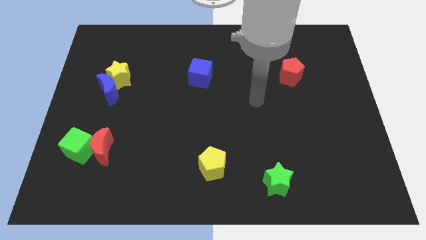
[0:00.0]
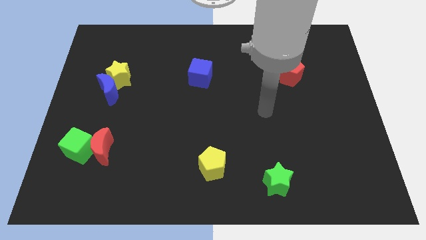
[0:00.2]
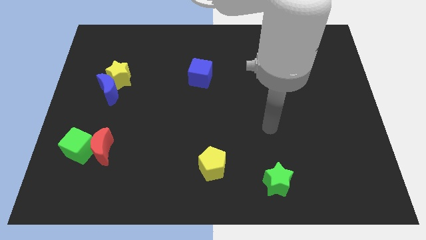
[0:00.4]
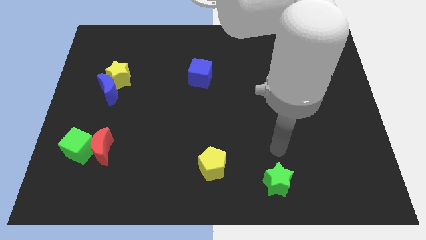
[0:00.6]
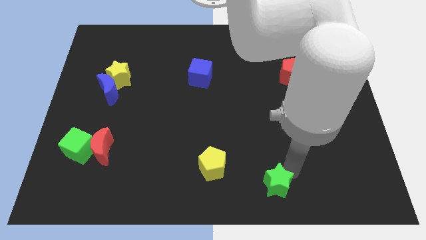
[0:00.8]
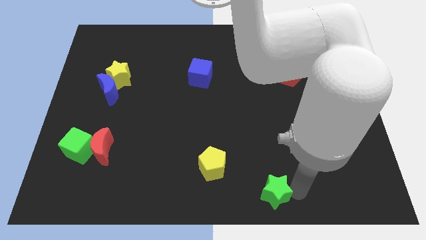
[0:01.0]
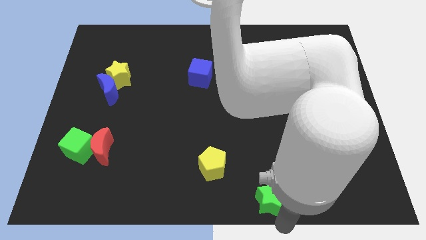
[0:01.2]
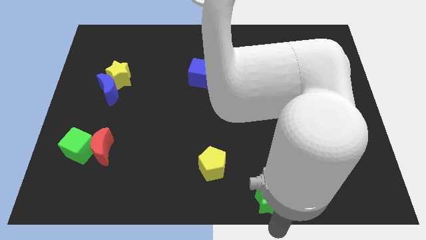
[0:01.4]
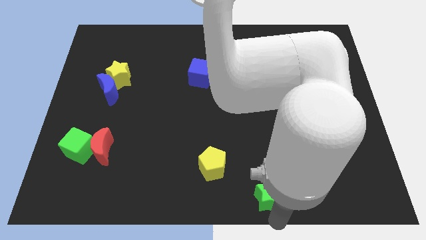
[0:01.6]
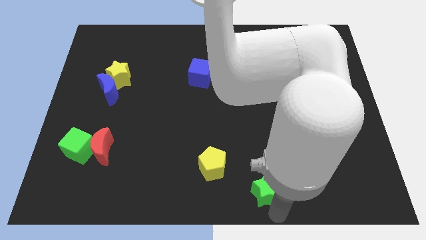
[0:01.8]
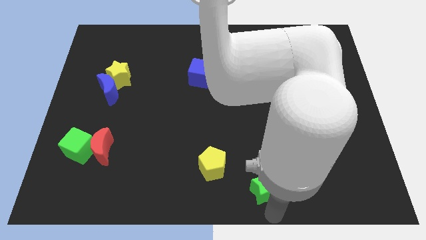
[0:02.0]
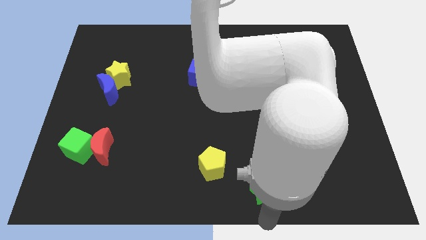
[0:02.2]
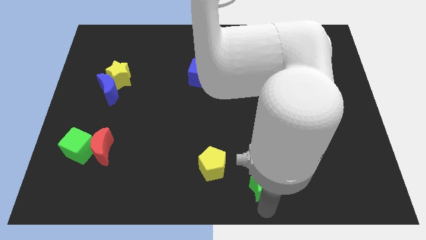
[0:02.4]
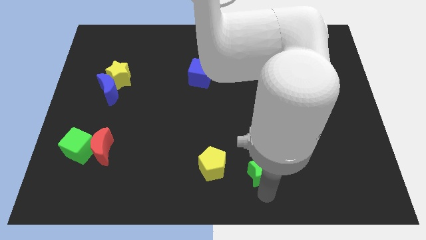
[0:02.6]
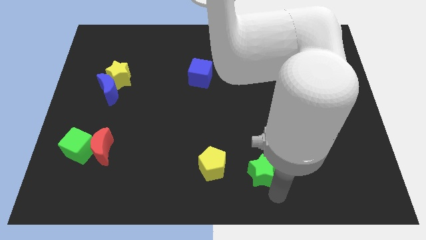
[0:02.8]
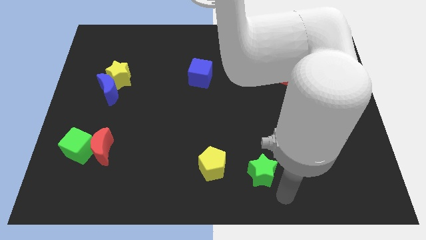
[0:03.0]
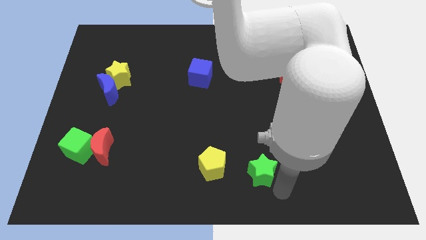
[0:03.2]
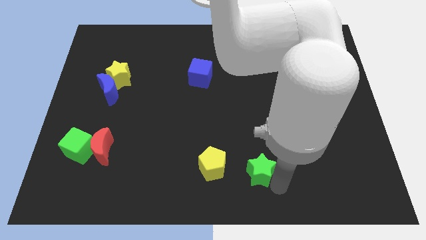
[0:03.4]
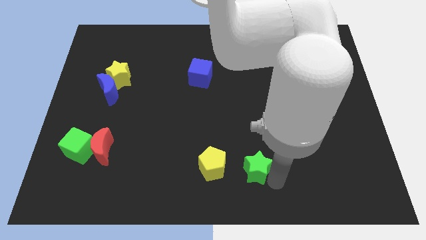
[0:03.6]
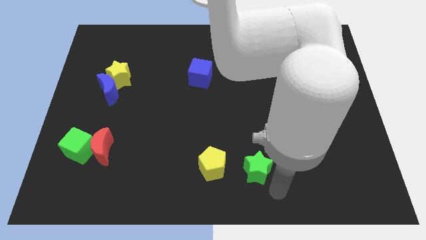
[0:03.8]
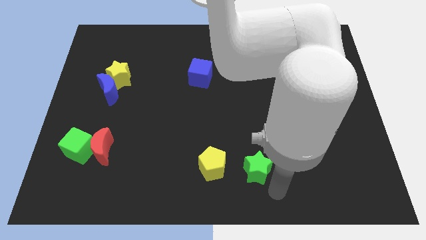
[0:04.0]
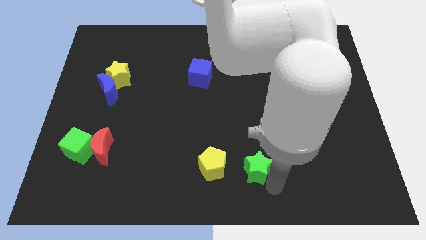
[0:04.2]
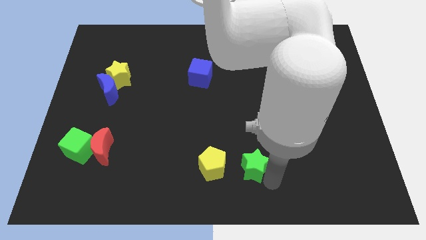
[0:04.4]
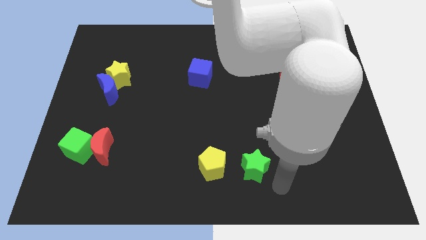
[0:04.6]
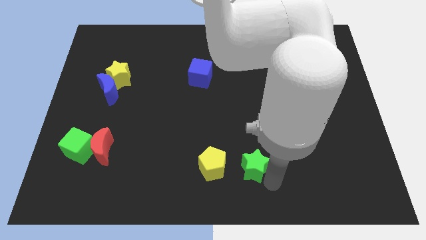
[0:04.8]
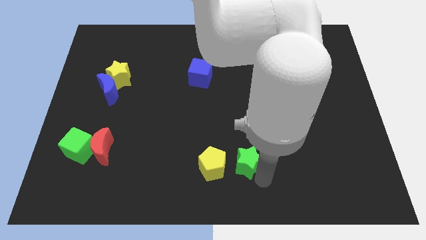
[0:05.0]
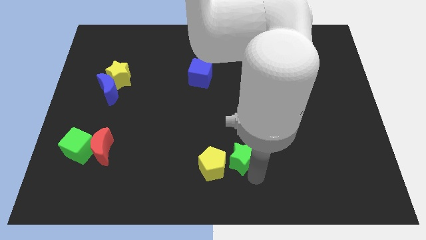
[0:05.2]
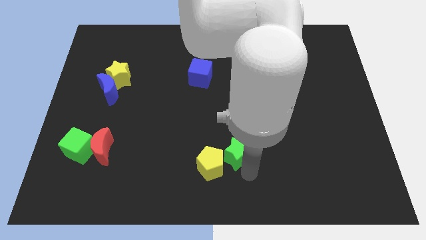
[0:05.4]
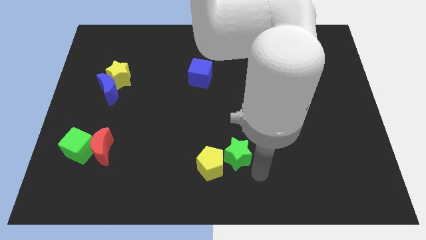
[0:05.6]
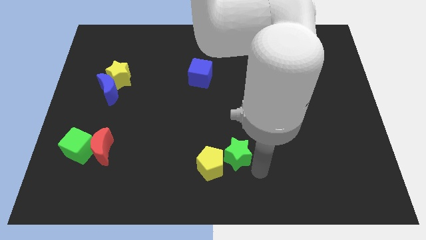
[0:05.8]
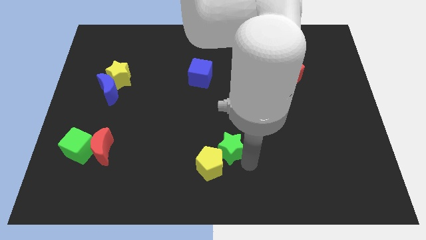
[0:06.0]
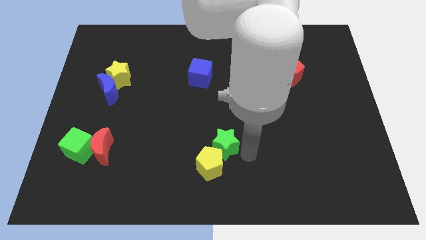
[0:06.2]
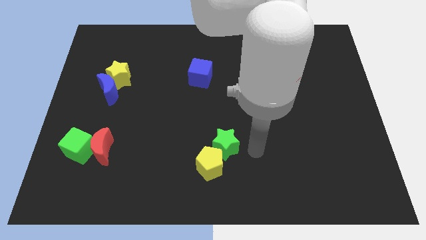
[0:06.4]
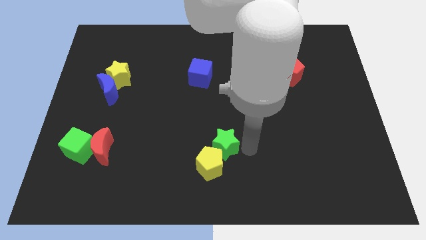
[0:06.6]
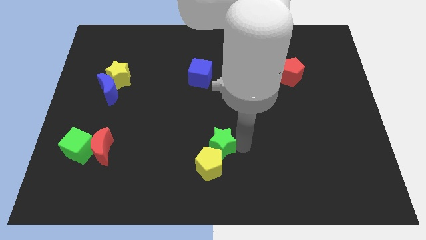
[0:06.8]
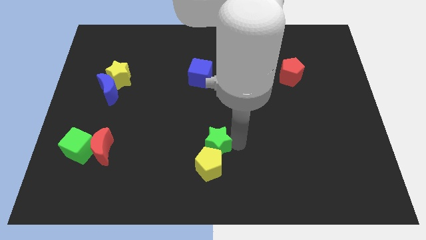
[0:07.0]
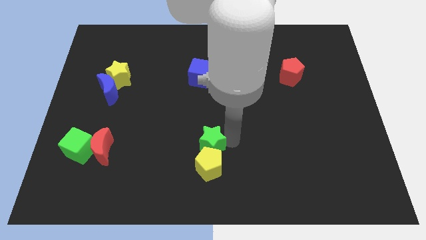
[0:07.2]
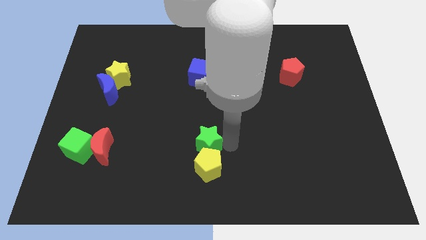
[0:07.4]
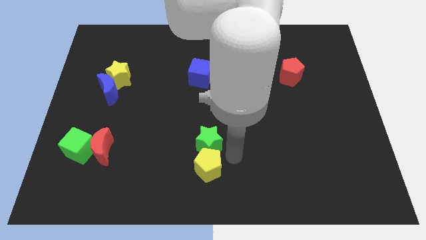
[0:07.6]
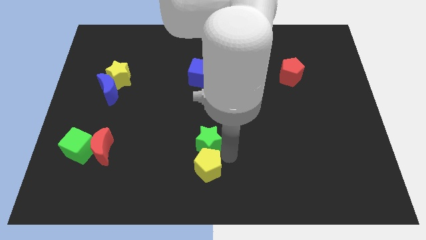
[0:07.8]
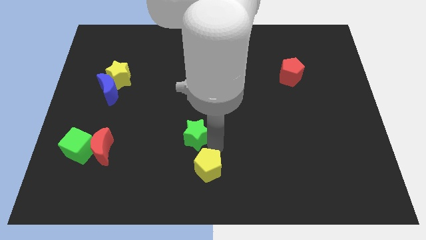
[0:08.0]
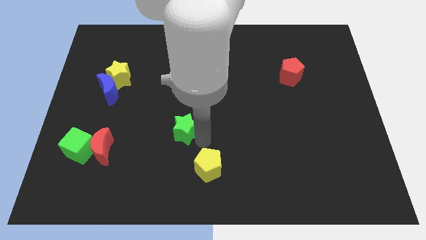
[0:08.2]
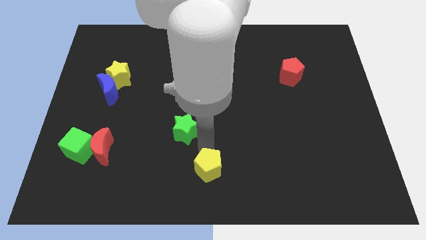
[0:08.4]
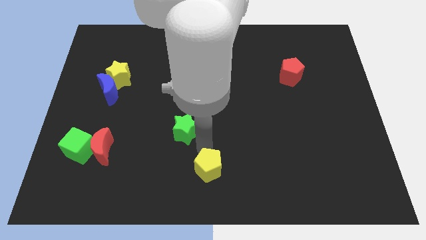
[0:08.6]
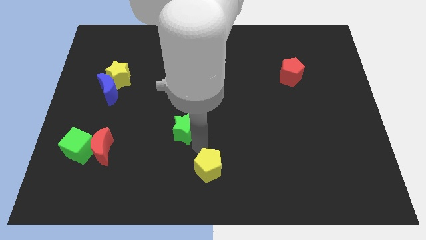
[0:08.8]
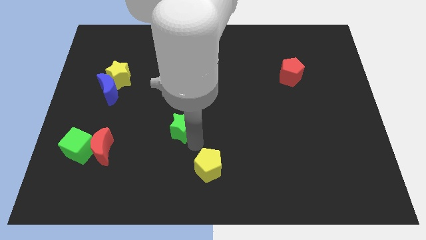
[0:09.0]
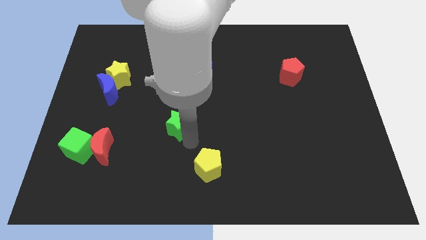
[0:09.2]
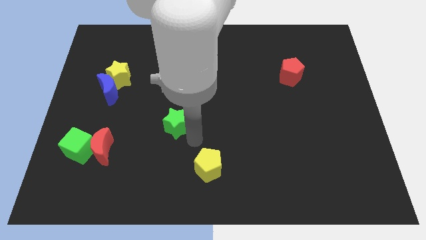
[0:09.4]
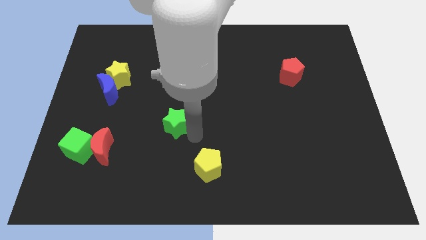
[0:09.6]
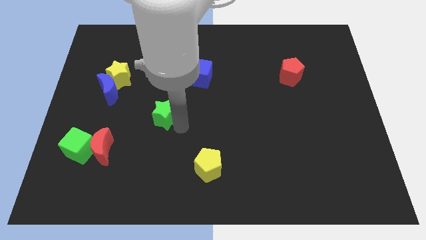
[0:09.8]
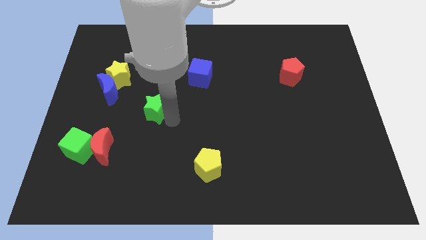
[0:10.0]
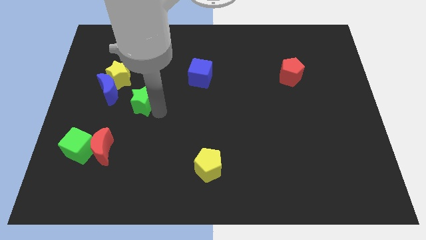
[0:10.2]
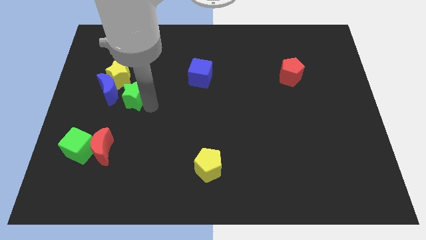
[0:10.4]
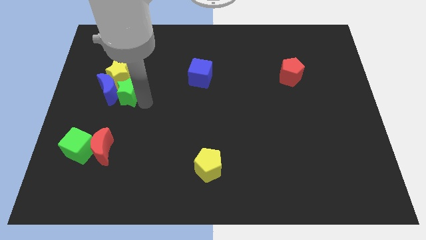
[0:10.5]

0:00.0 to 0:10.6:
push the green star next to the blue moon

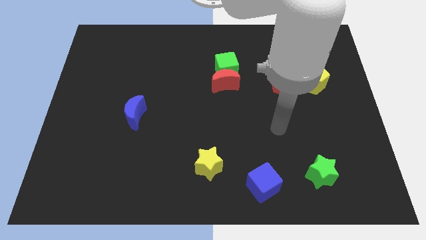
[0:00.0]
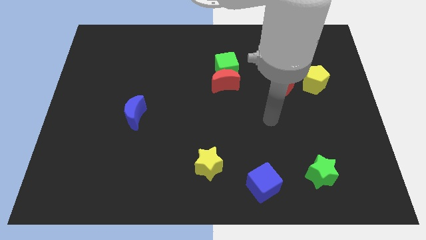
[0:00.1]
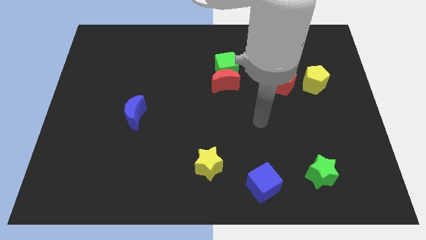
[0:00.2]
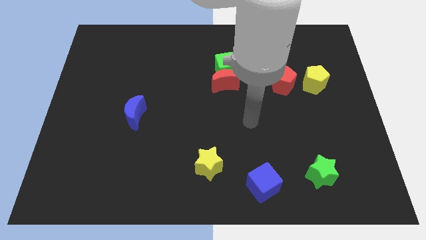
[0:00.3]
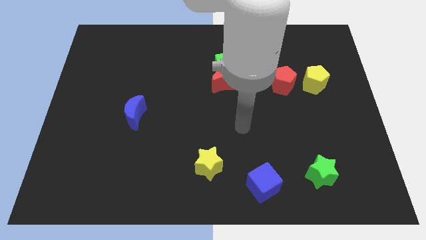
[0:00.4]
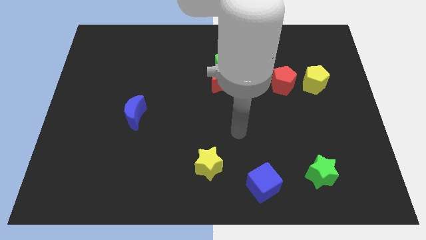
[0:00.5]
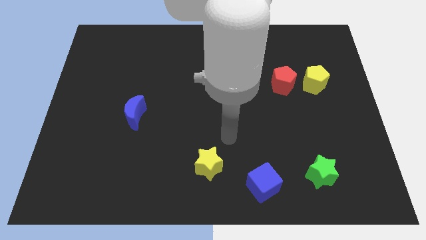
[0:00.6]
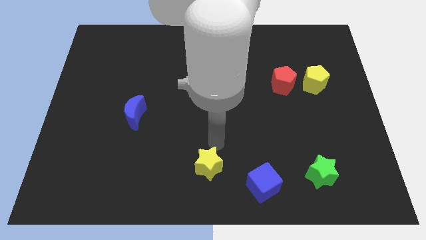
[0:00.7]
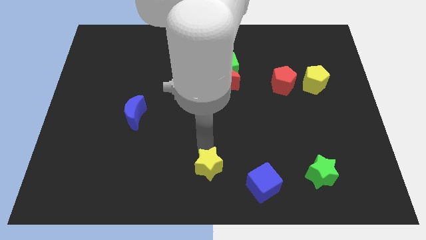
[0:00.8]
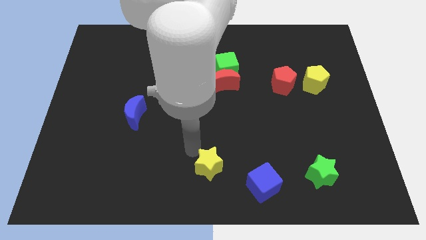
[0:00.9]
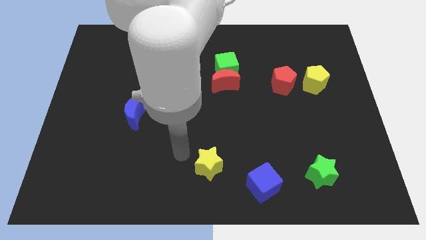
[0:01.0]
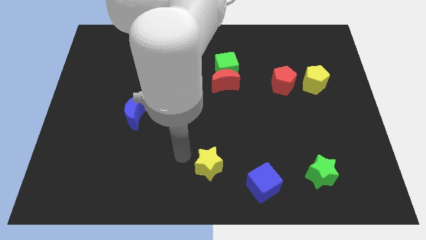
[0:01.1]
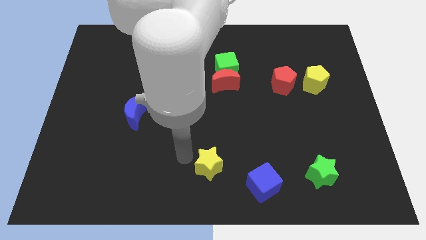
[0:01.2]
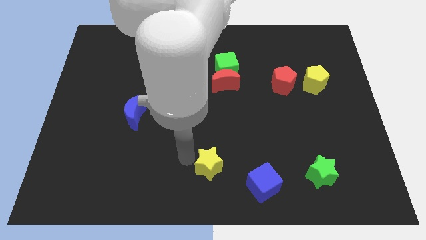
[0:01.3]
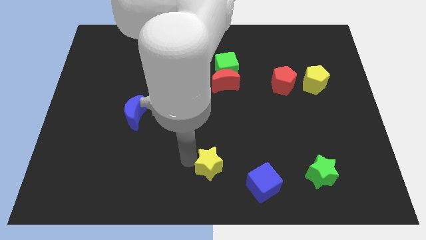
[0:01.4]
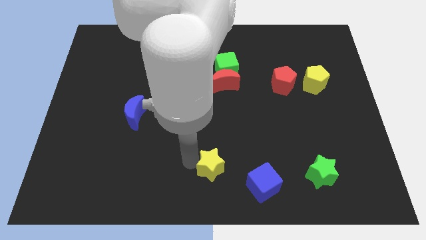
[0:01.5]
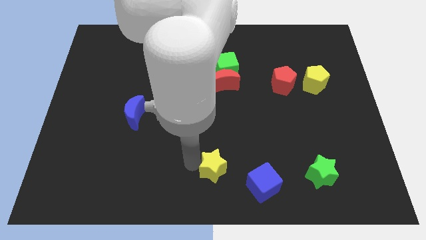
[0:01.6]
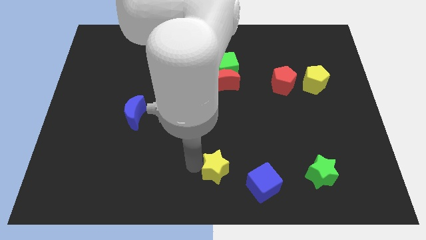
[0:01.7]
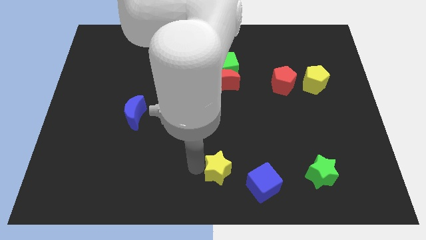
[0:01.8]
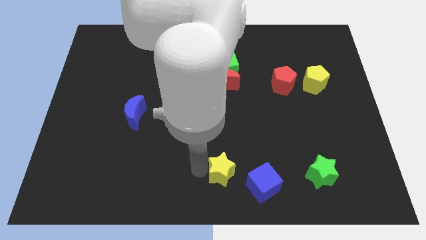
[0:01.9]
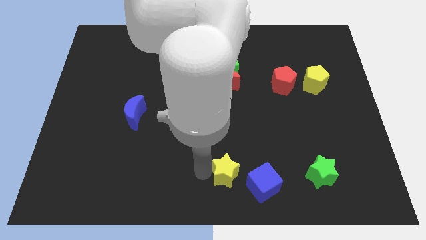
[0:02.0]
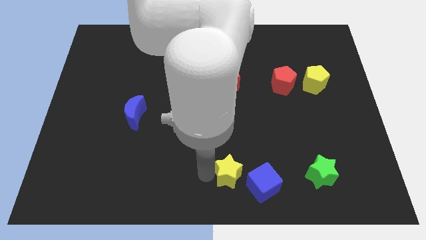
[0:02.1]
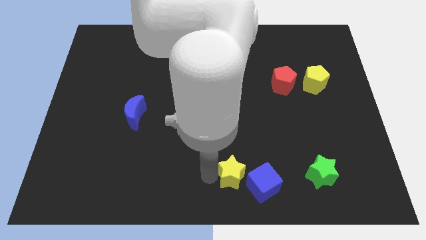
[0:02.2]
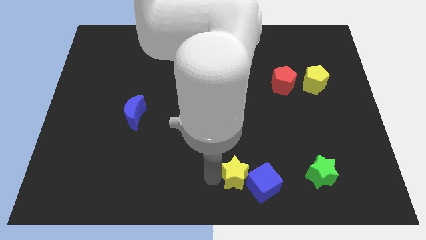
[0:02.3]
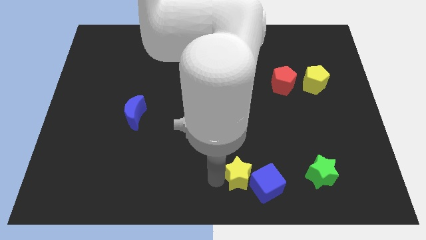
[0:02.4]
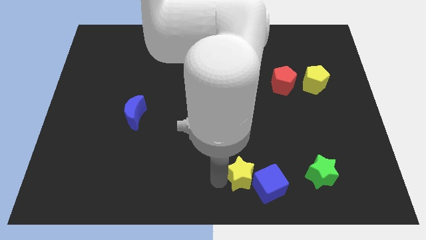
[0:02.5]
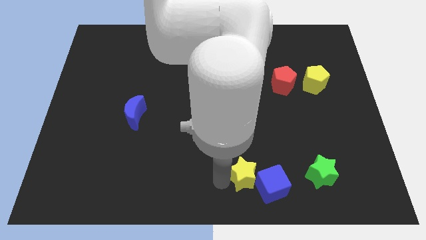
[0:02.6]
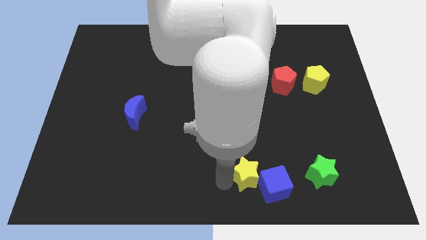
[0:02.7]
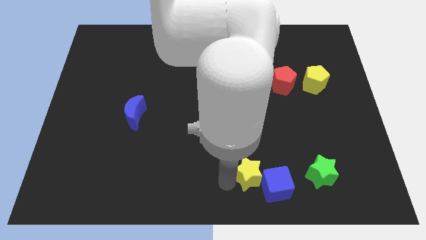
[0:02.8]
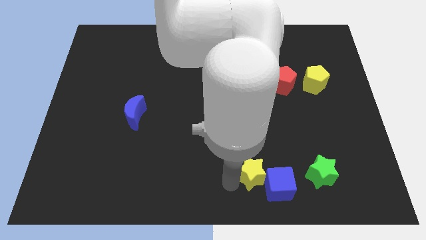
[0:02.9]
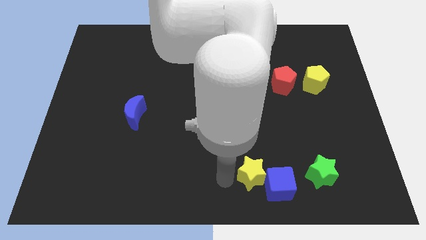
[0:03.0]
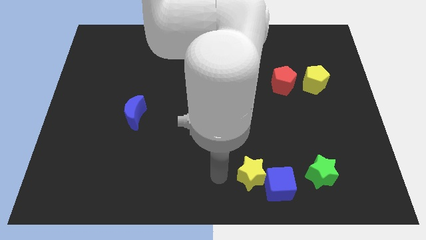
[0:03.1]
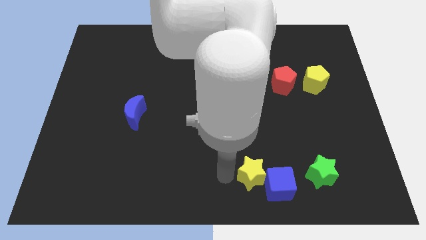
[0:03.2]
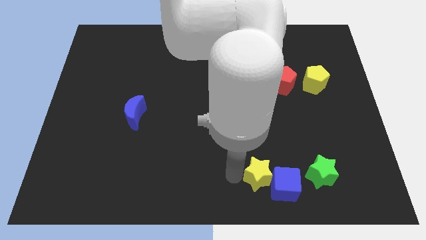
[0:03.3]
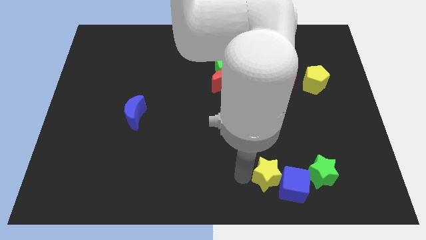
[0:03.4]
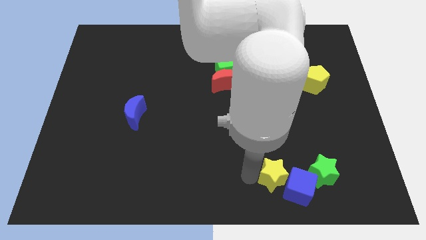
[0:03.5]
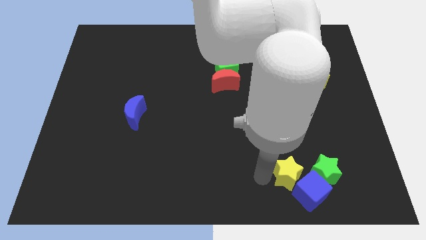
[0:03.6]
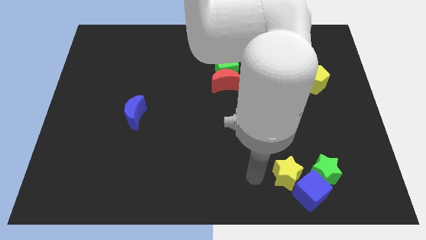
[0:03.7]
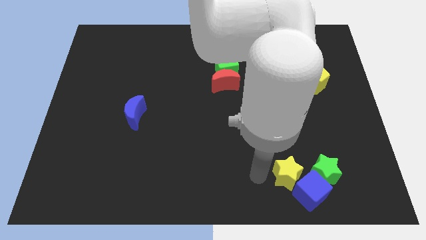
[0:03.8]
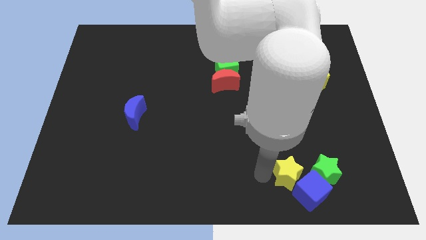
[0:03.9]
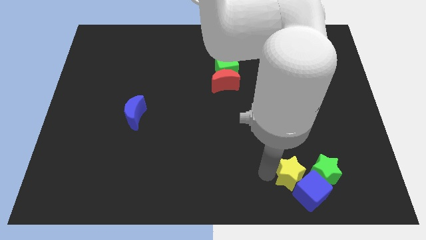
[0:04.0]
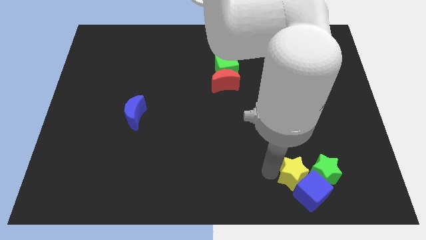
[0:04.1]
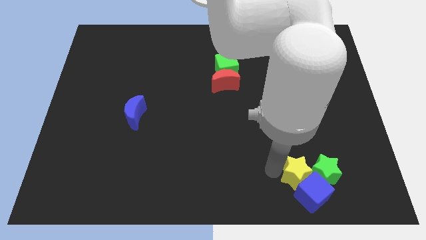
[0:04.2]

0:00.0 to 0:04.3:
put the yellow star next to the green star
